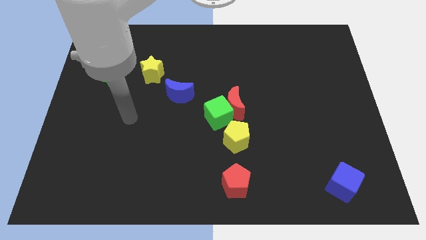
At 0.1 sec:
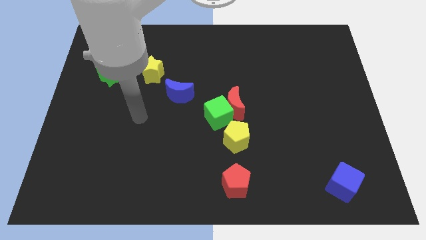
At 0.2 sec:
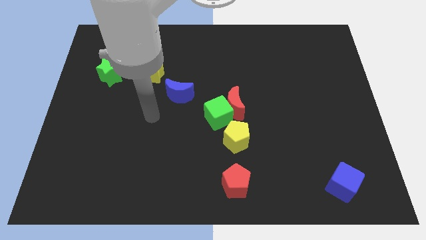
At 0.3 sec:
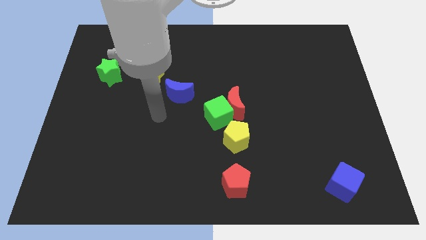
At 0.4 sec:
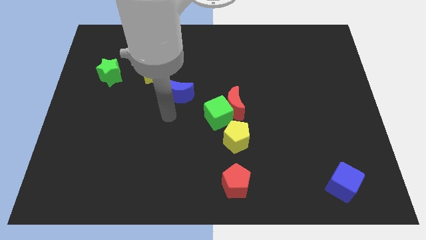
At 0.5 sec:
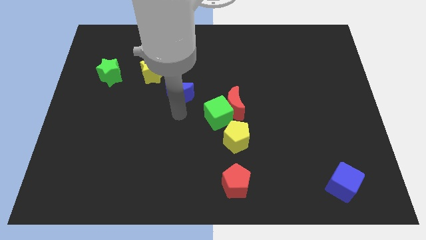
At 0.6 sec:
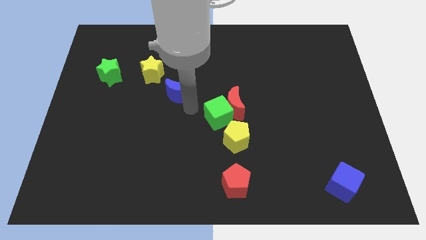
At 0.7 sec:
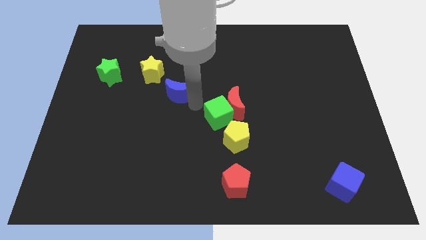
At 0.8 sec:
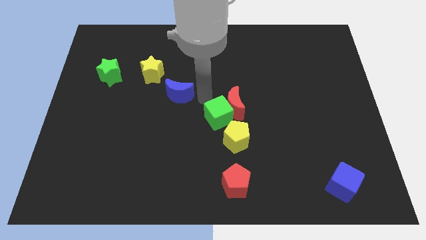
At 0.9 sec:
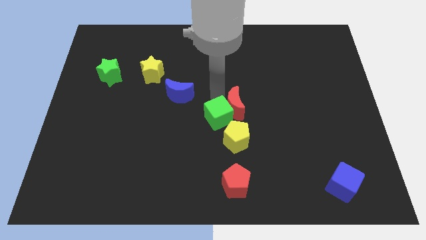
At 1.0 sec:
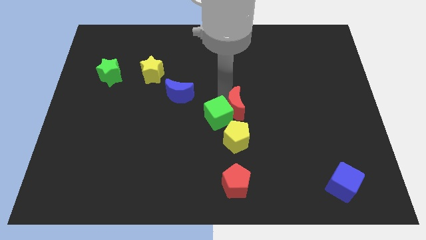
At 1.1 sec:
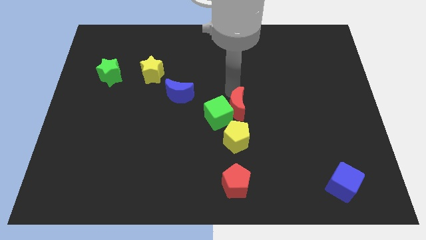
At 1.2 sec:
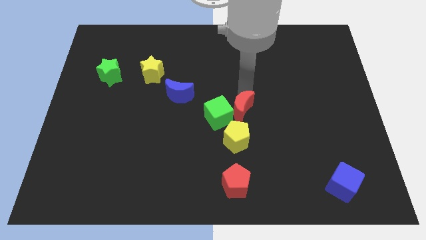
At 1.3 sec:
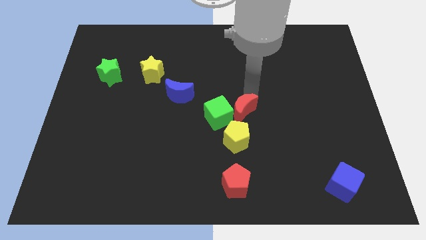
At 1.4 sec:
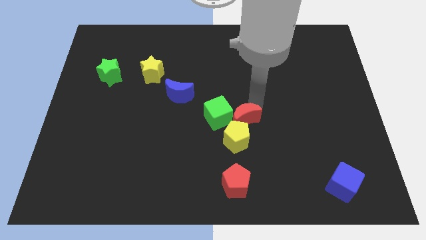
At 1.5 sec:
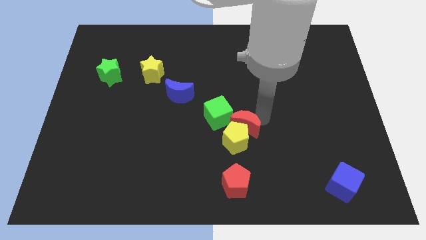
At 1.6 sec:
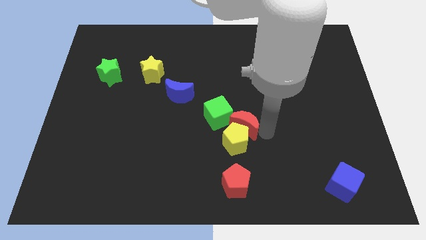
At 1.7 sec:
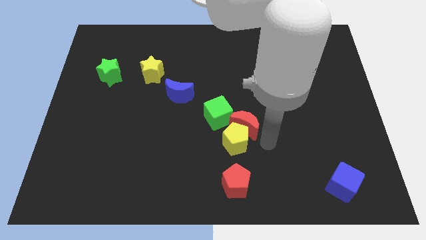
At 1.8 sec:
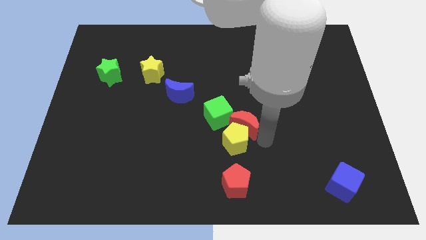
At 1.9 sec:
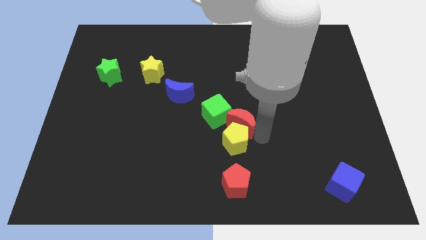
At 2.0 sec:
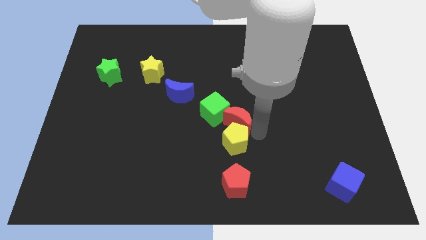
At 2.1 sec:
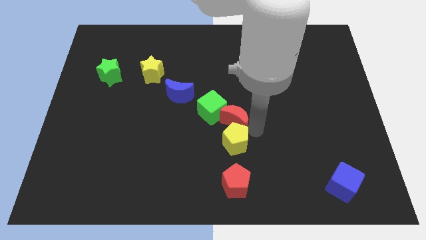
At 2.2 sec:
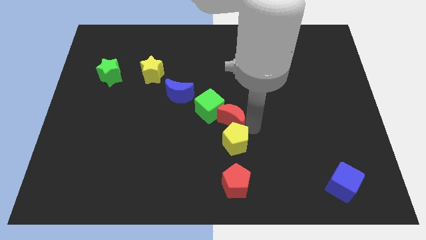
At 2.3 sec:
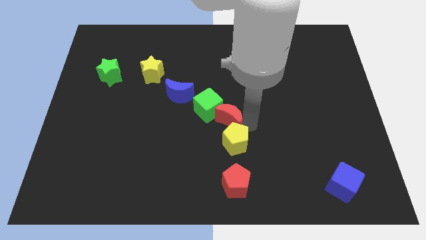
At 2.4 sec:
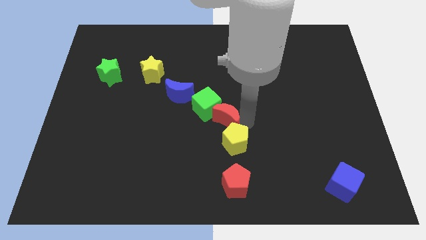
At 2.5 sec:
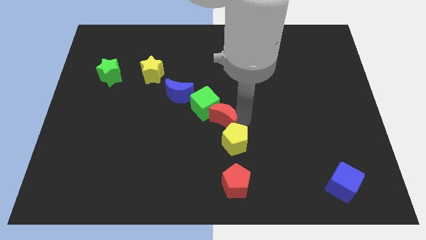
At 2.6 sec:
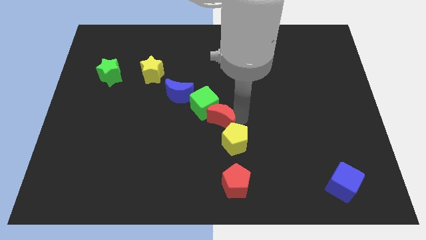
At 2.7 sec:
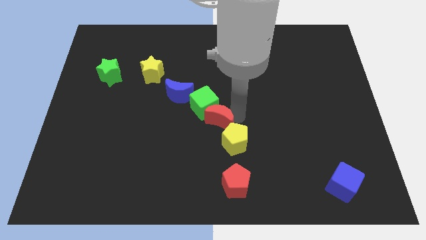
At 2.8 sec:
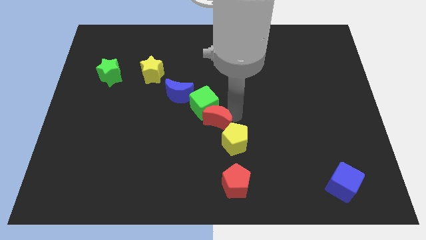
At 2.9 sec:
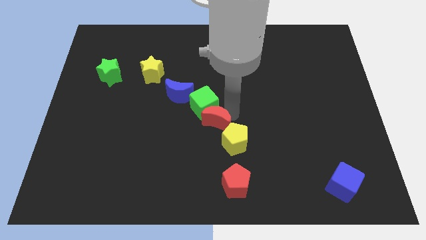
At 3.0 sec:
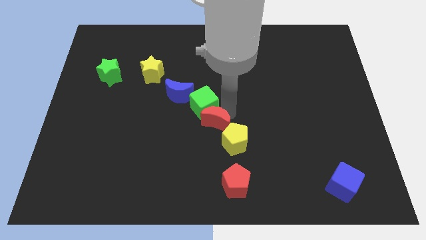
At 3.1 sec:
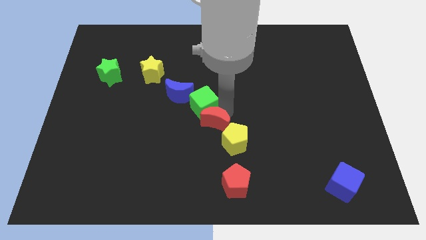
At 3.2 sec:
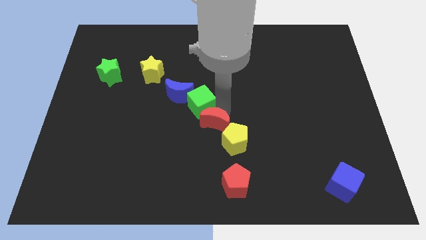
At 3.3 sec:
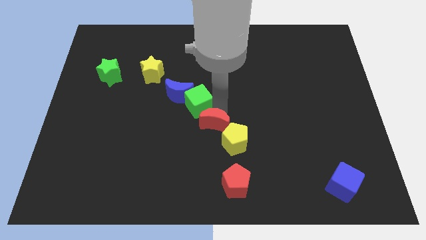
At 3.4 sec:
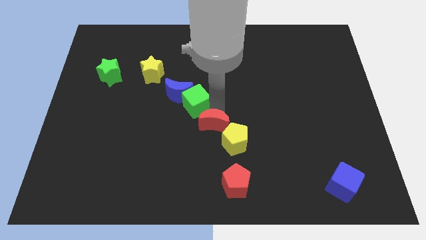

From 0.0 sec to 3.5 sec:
slightly move the red moon downwards and to the left diagonally

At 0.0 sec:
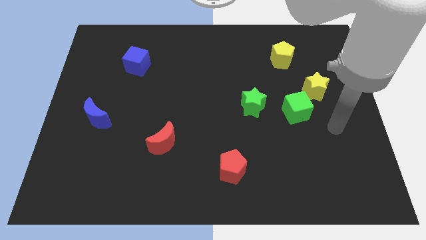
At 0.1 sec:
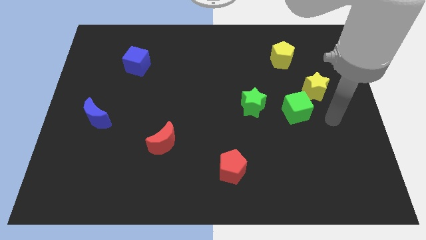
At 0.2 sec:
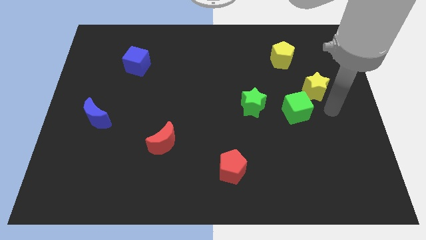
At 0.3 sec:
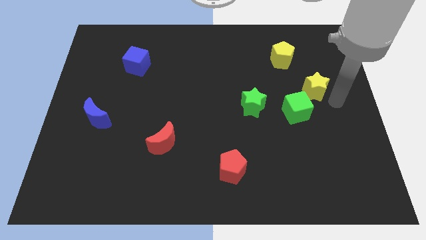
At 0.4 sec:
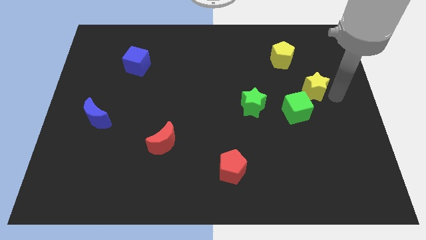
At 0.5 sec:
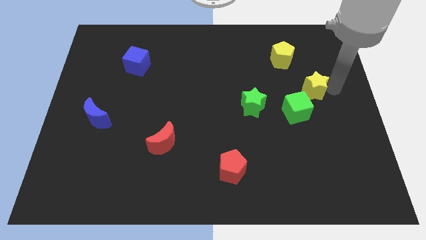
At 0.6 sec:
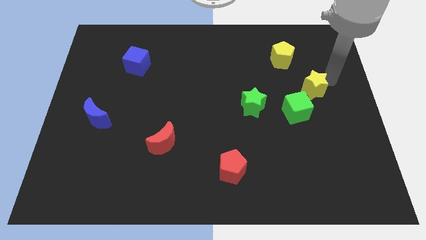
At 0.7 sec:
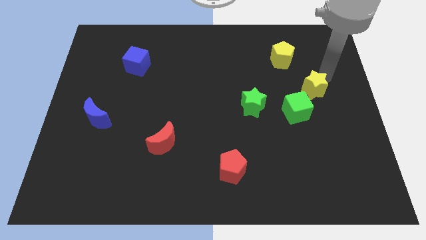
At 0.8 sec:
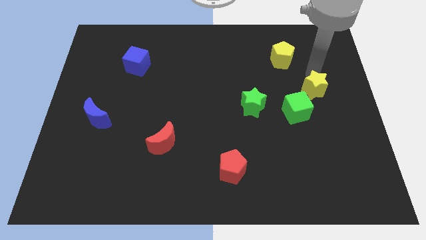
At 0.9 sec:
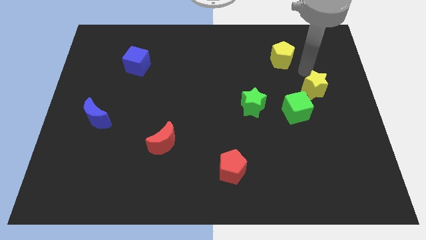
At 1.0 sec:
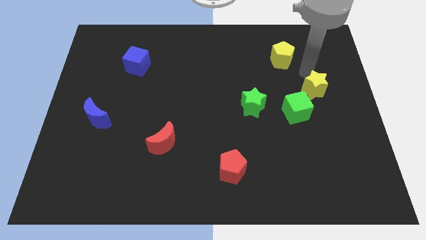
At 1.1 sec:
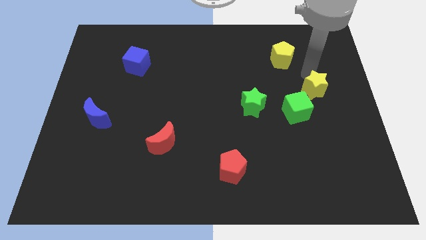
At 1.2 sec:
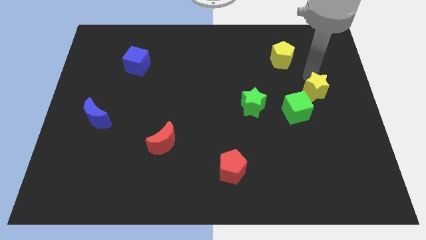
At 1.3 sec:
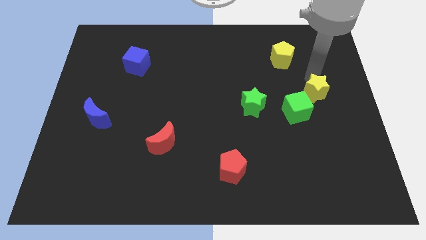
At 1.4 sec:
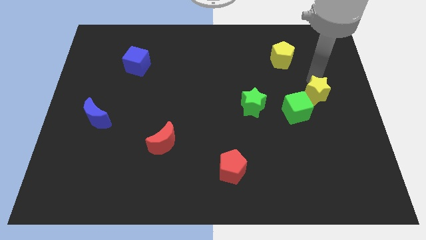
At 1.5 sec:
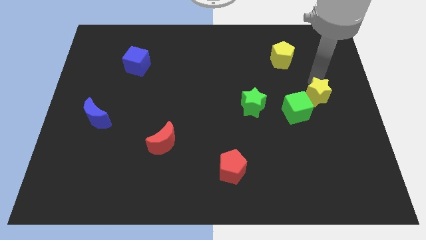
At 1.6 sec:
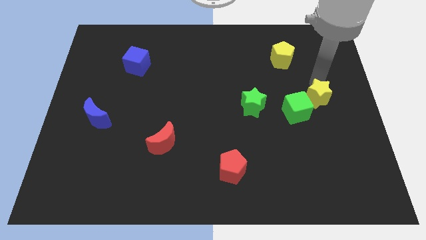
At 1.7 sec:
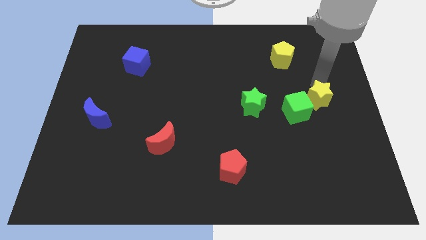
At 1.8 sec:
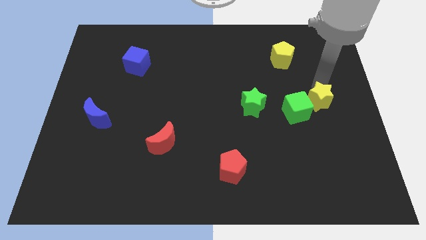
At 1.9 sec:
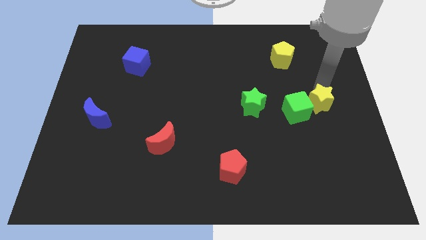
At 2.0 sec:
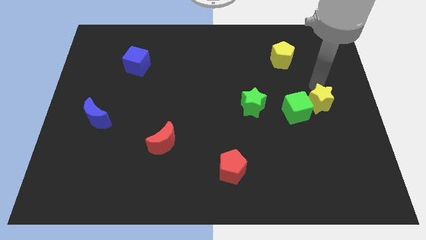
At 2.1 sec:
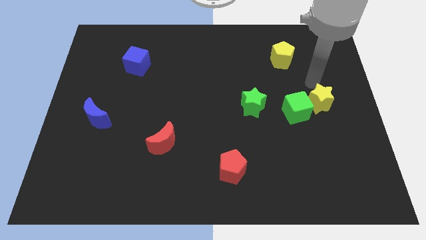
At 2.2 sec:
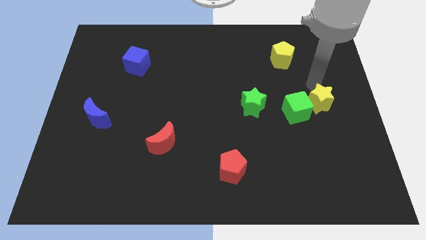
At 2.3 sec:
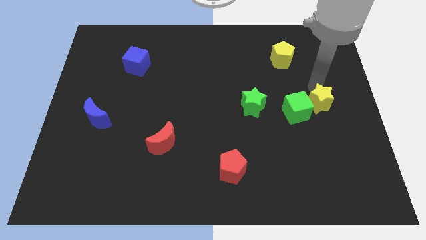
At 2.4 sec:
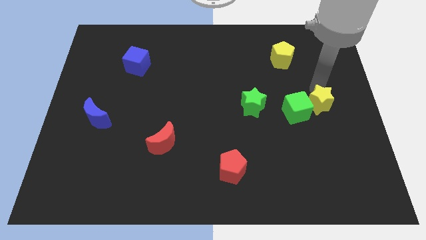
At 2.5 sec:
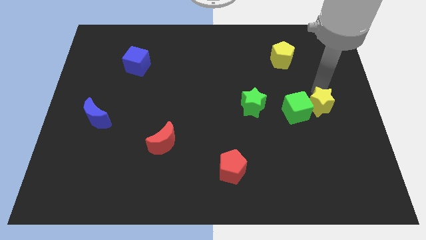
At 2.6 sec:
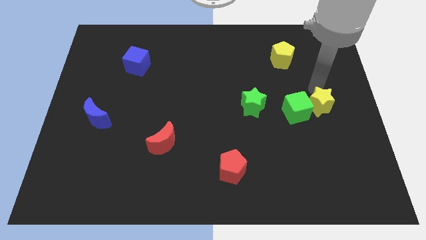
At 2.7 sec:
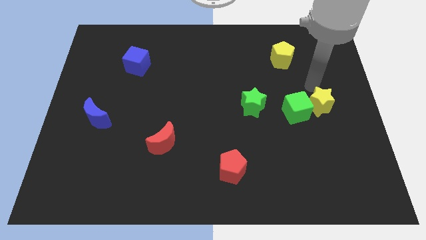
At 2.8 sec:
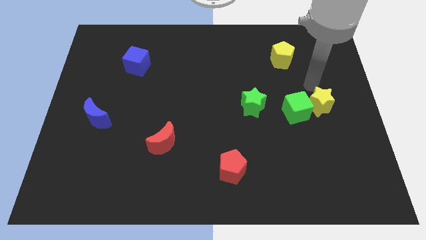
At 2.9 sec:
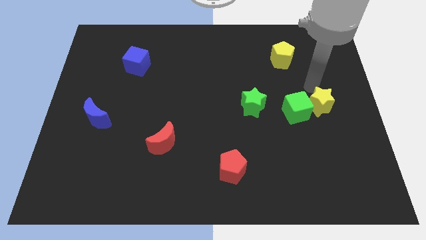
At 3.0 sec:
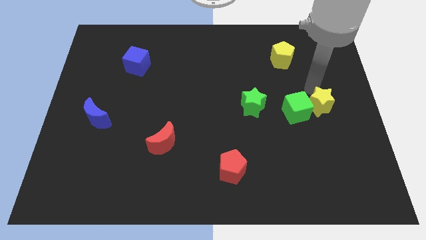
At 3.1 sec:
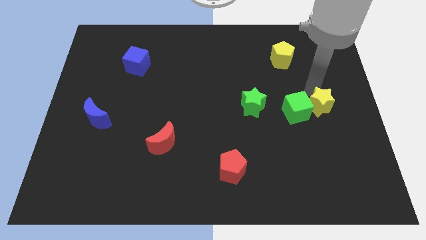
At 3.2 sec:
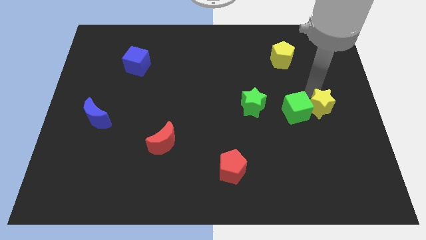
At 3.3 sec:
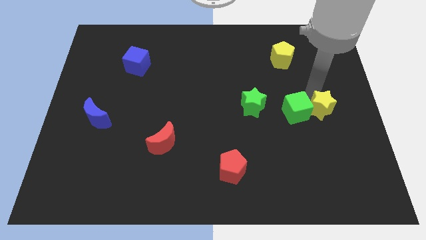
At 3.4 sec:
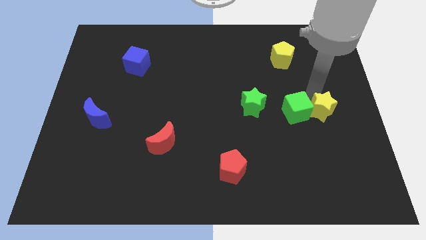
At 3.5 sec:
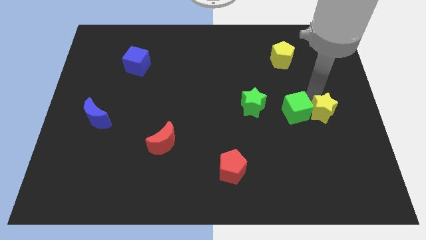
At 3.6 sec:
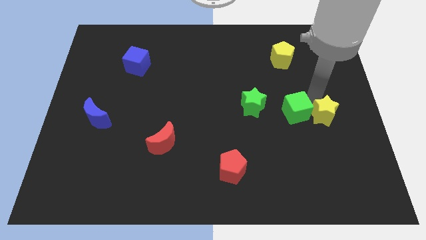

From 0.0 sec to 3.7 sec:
slightly slide the yellow star down

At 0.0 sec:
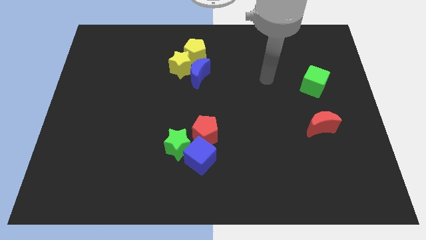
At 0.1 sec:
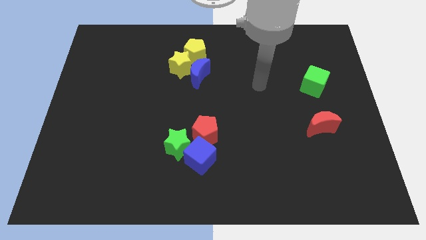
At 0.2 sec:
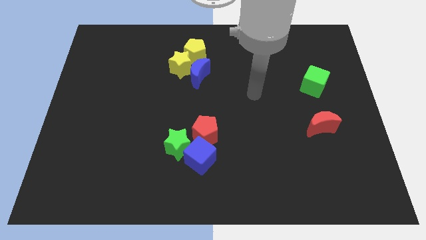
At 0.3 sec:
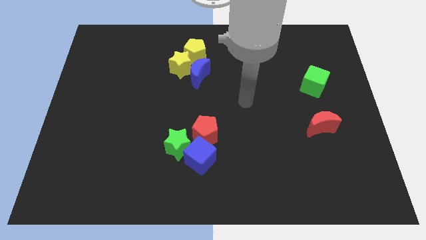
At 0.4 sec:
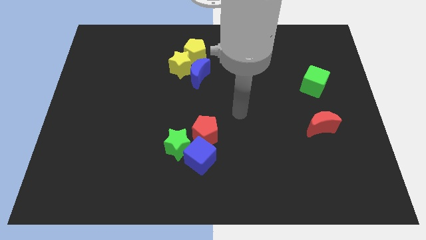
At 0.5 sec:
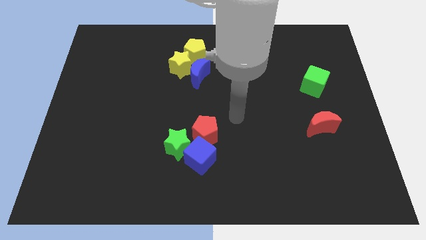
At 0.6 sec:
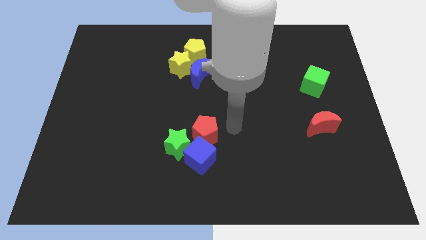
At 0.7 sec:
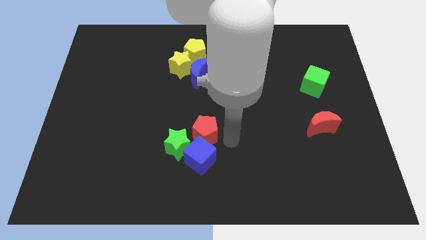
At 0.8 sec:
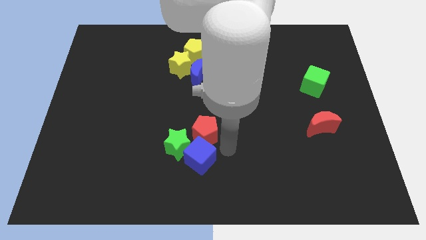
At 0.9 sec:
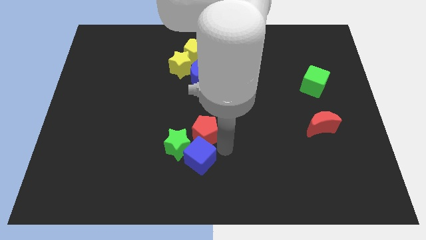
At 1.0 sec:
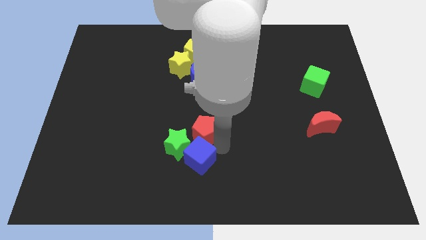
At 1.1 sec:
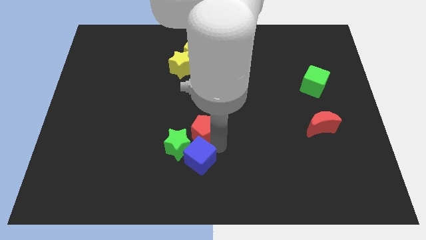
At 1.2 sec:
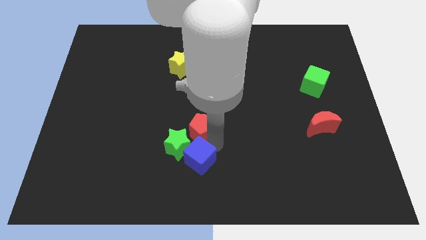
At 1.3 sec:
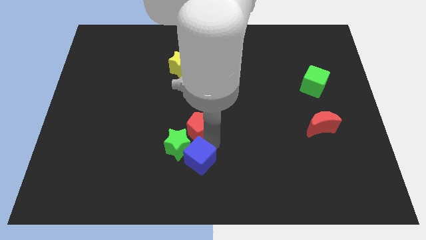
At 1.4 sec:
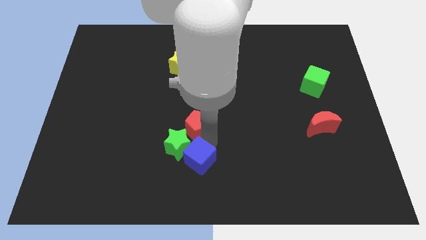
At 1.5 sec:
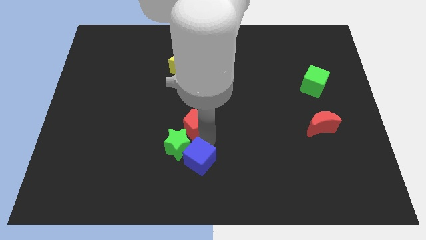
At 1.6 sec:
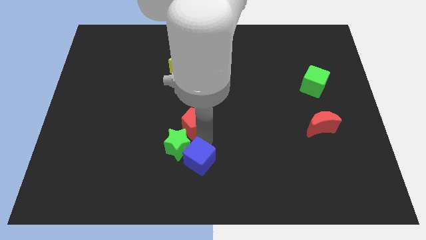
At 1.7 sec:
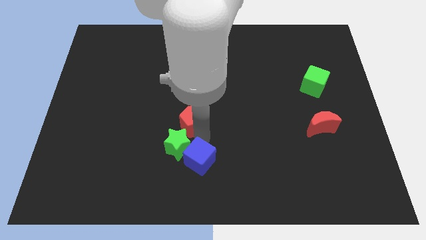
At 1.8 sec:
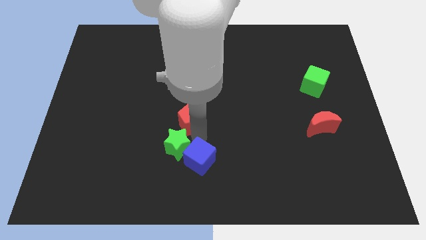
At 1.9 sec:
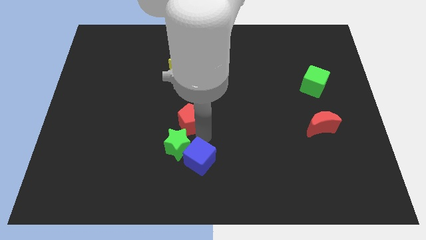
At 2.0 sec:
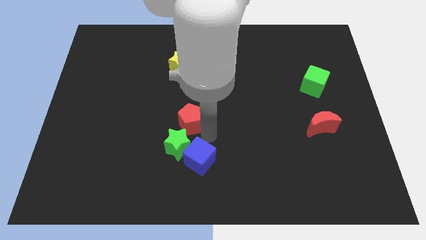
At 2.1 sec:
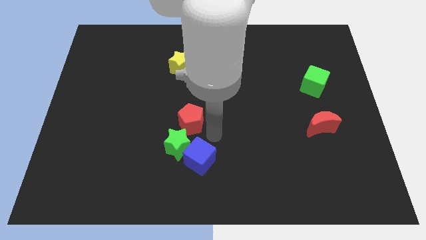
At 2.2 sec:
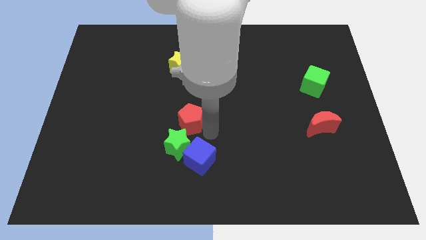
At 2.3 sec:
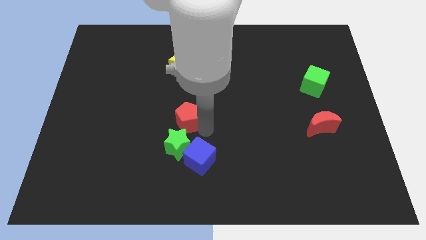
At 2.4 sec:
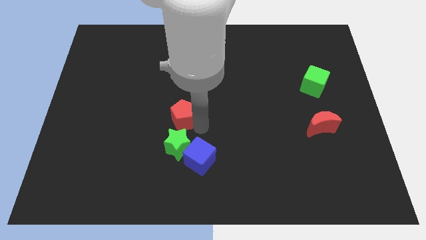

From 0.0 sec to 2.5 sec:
move the red pentagon a little up and left
